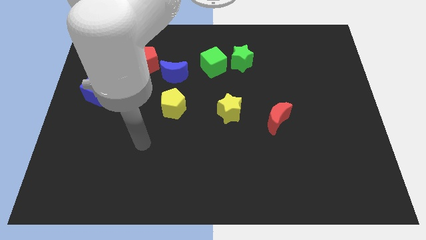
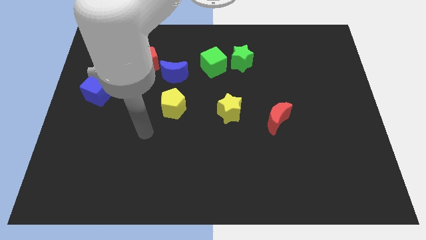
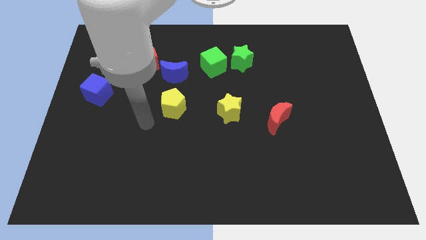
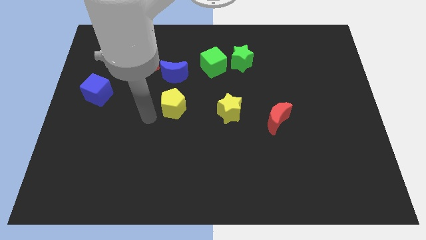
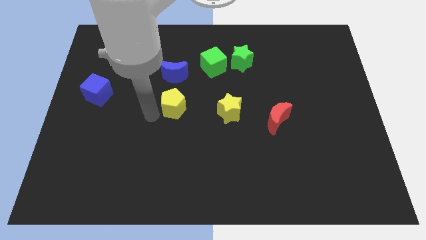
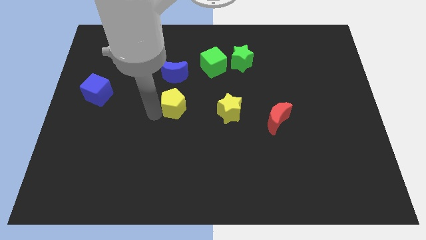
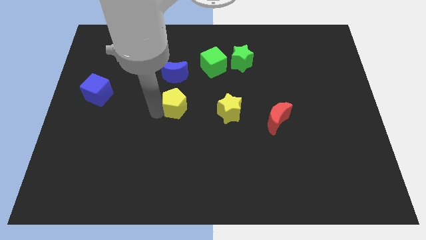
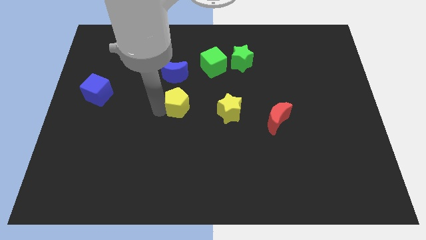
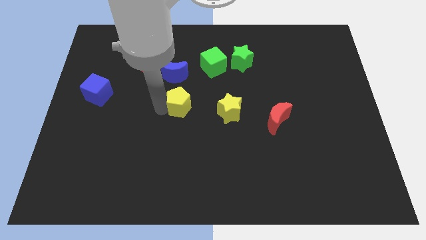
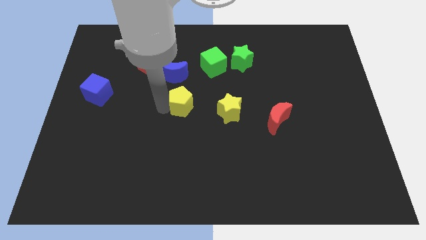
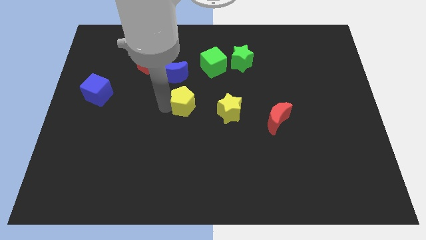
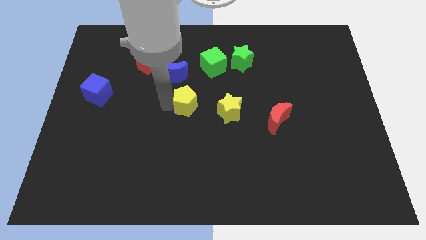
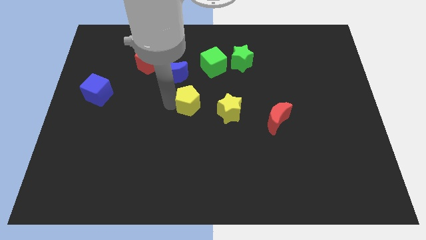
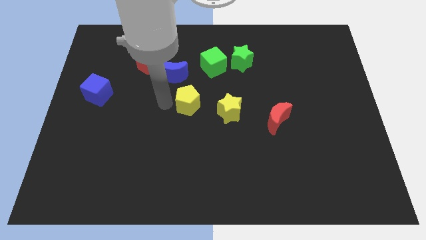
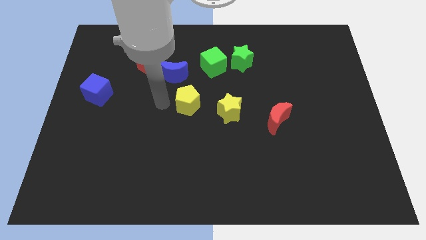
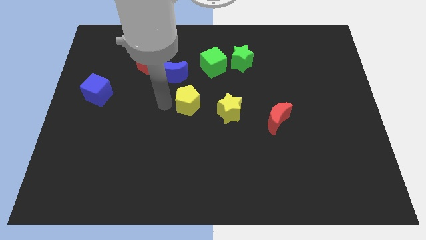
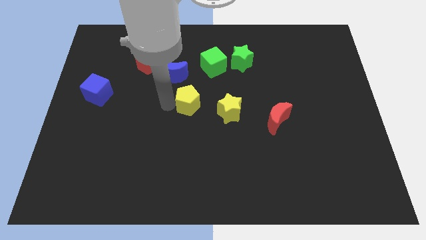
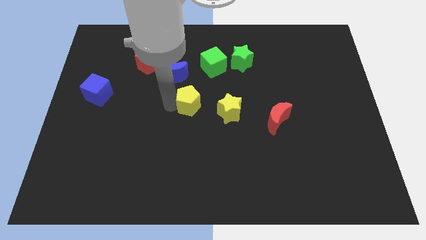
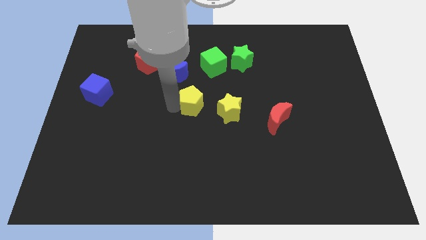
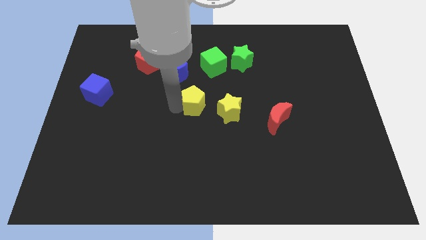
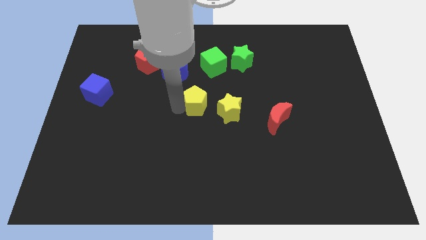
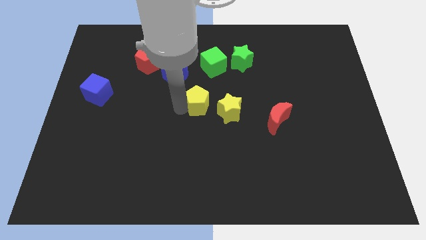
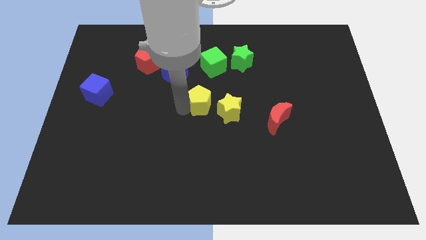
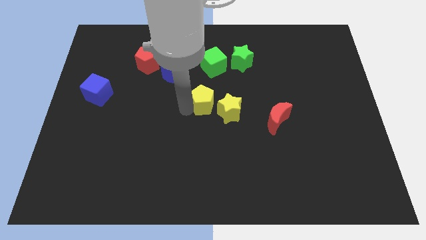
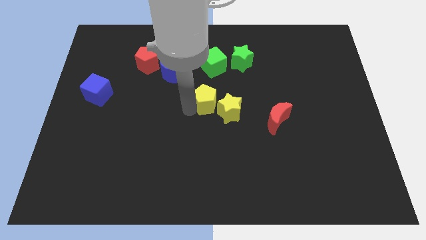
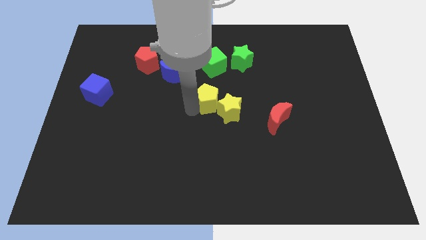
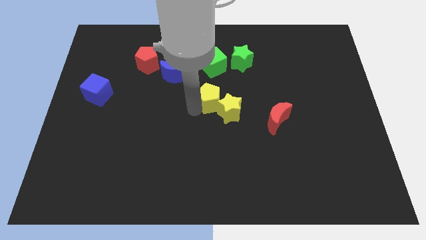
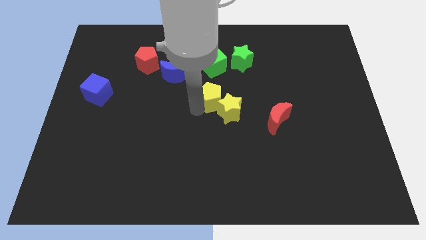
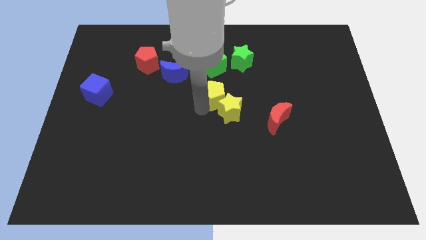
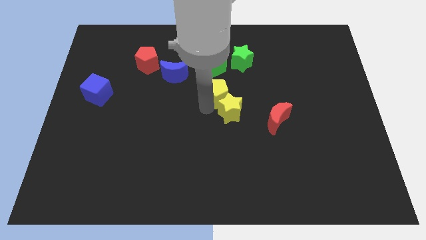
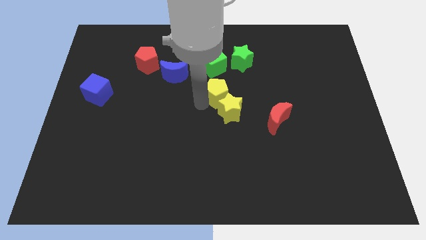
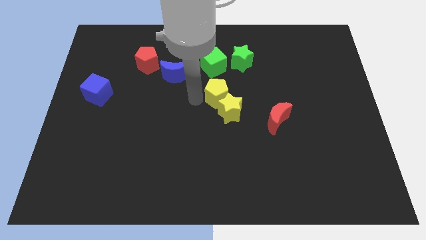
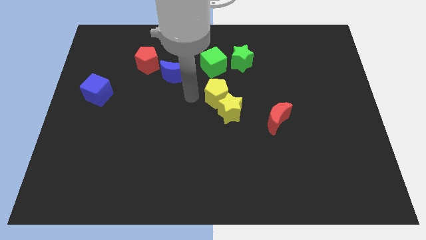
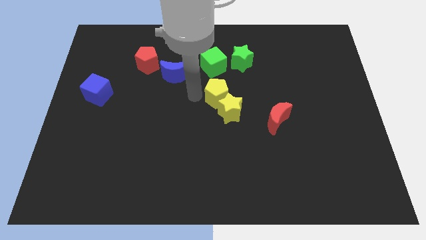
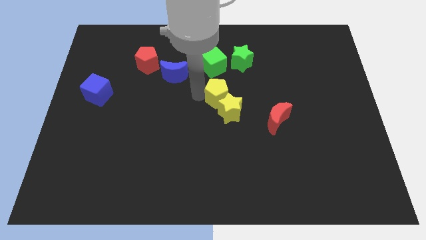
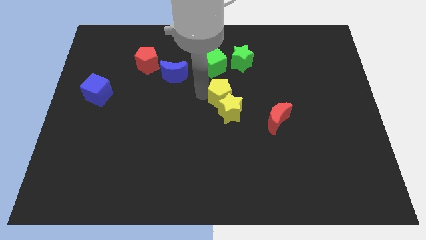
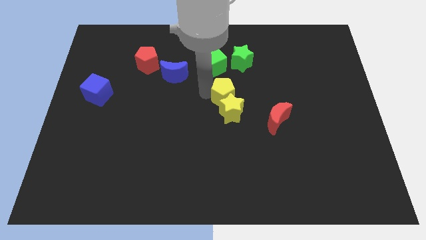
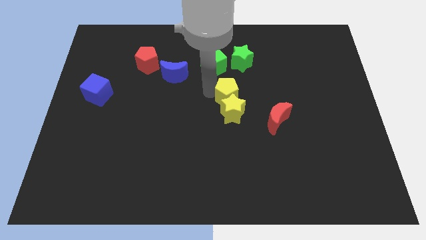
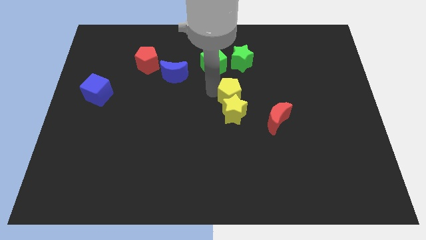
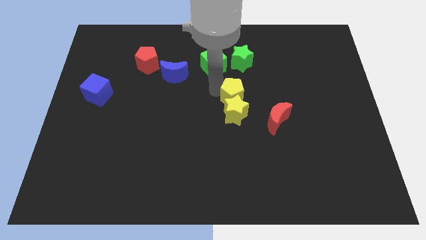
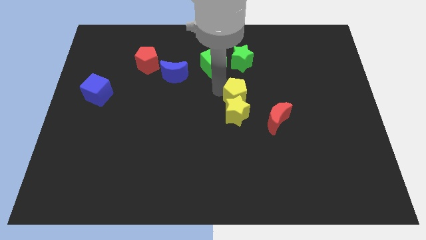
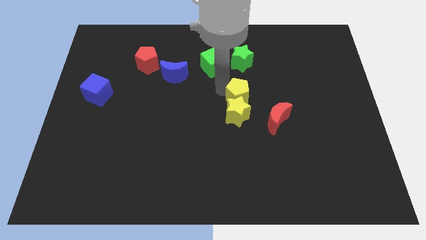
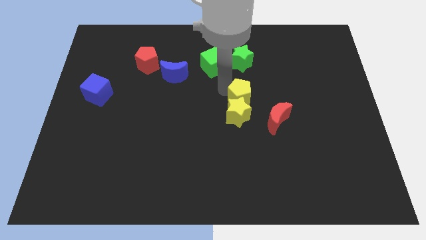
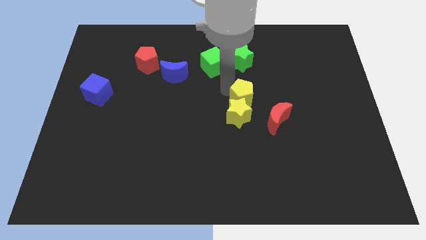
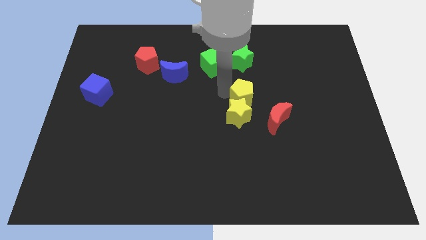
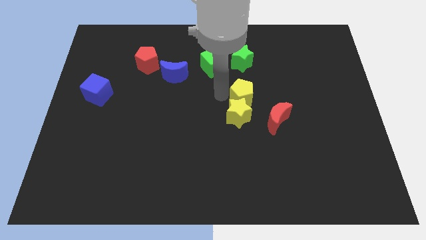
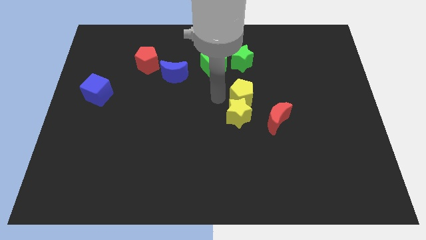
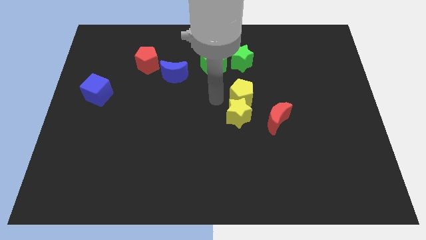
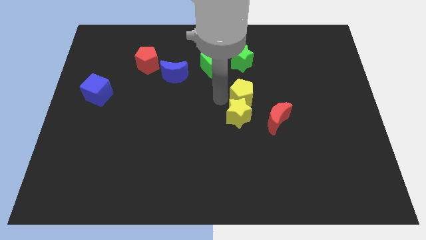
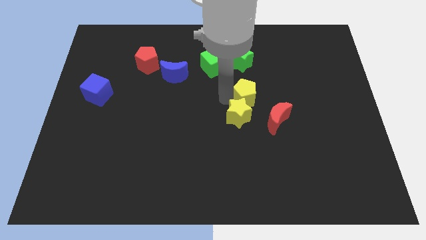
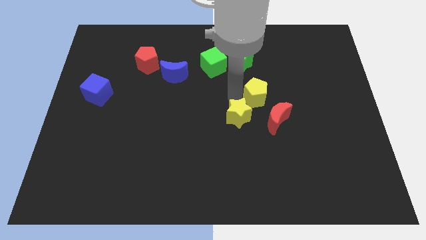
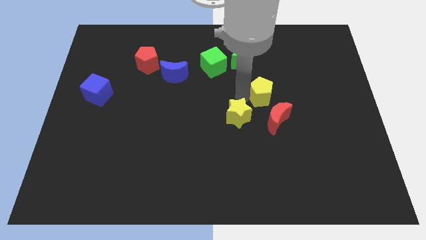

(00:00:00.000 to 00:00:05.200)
push the yellow pentagon to the right

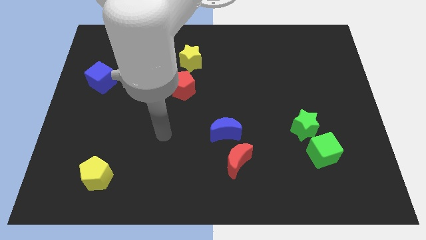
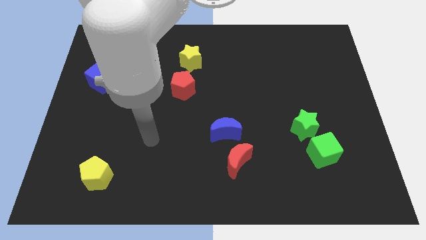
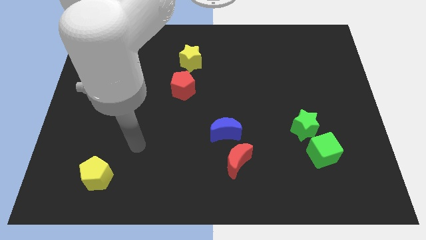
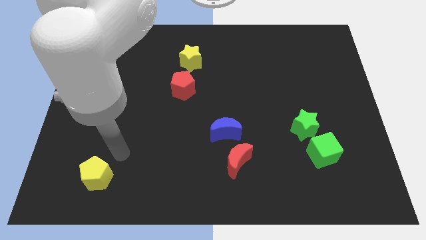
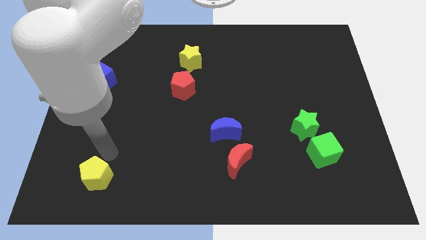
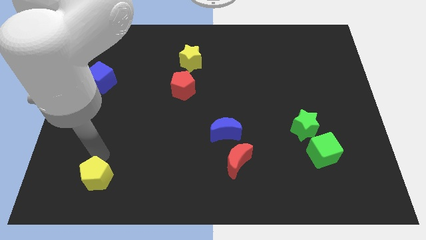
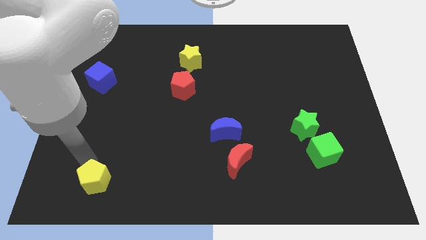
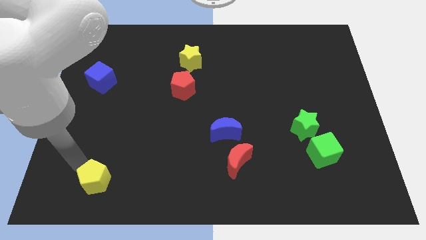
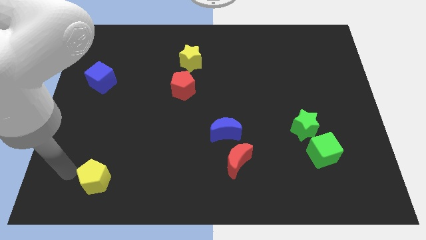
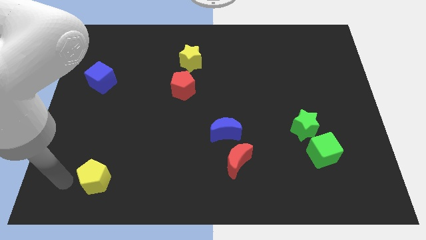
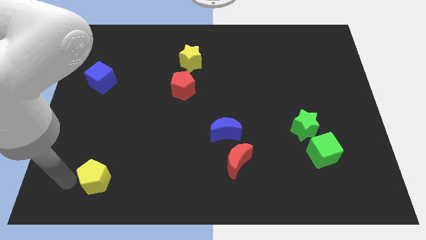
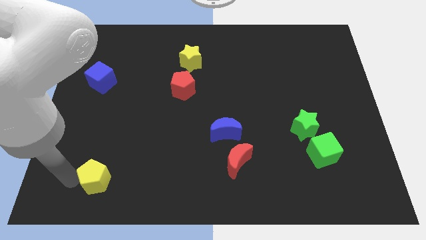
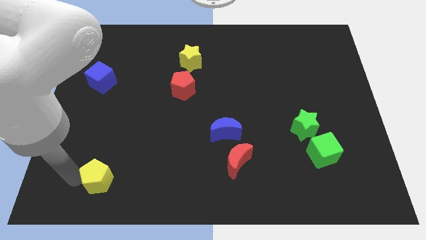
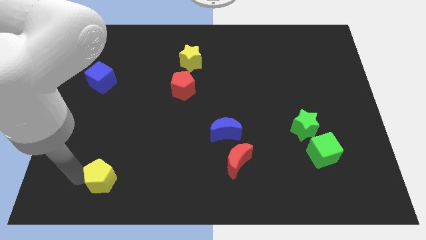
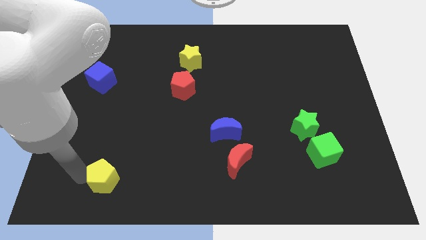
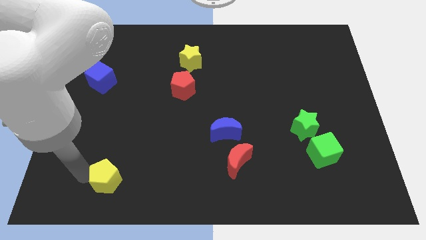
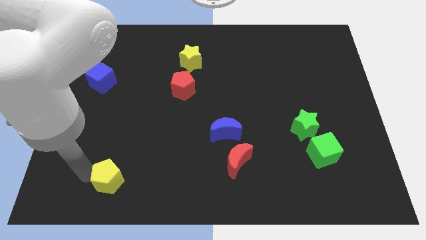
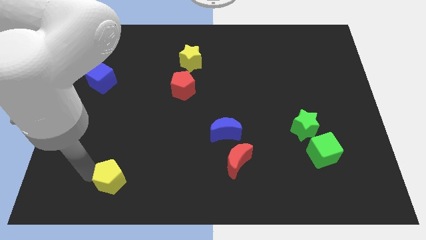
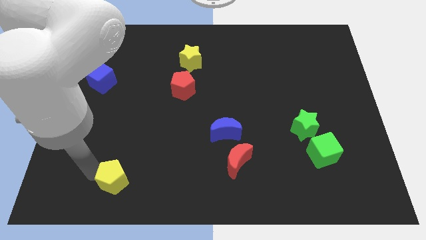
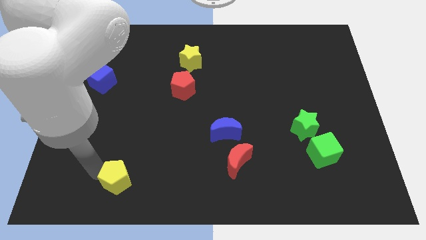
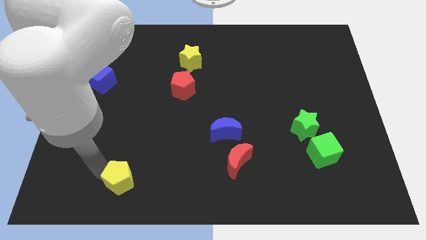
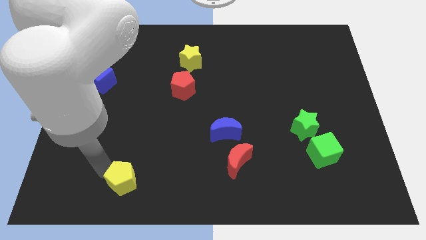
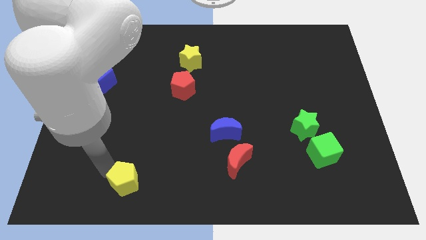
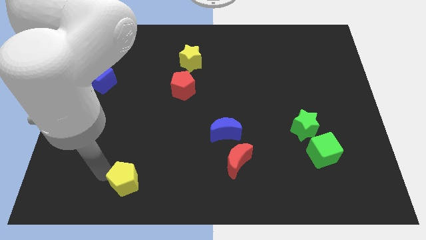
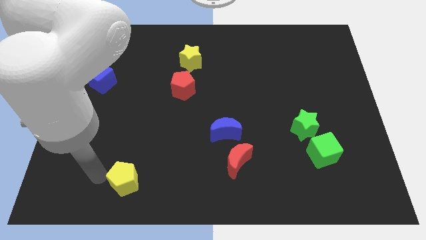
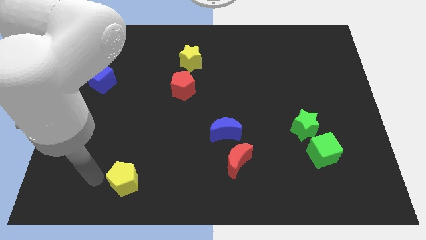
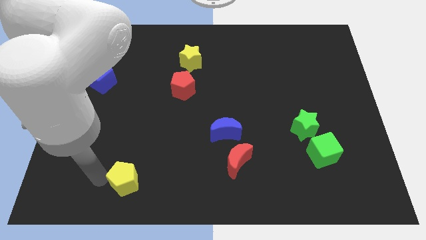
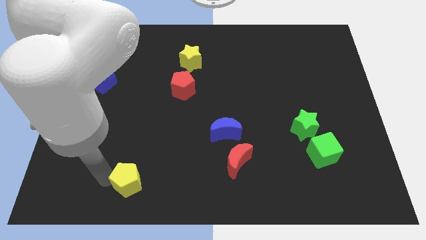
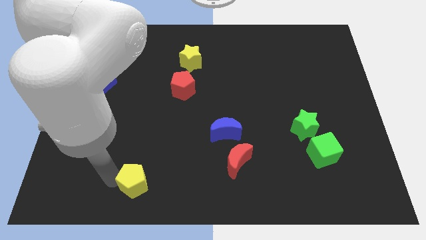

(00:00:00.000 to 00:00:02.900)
move the yellow pentagon a little bit right
